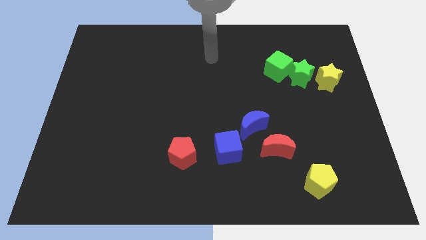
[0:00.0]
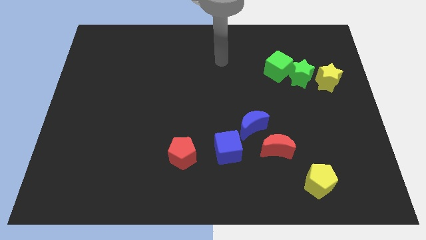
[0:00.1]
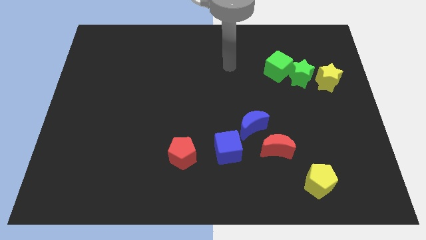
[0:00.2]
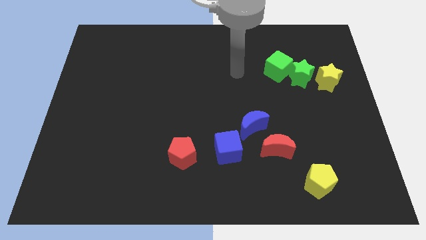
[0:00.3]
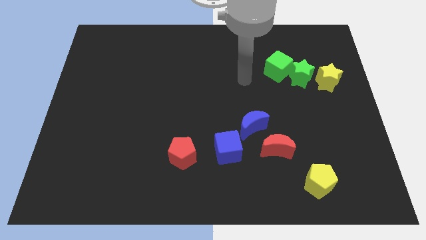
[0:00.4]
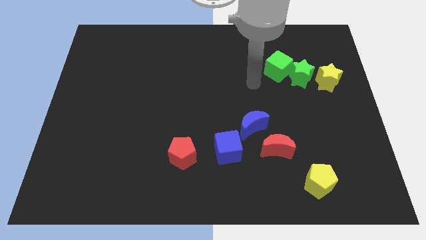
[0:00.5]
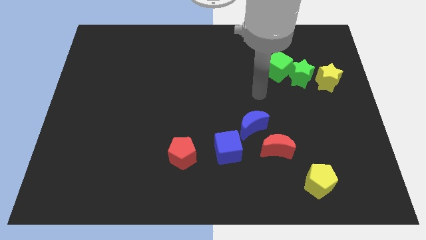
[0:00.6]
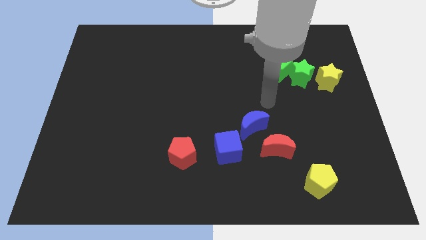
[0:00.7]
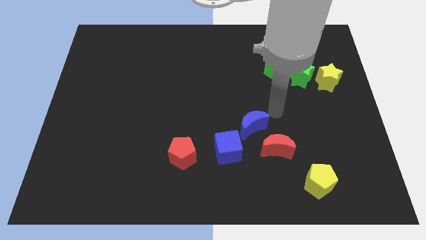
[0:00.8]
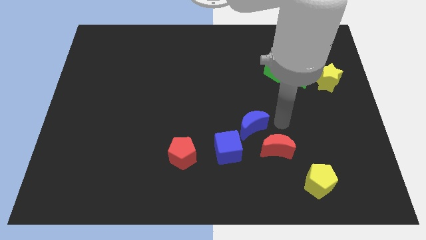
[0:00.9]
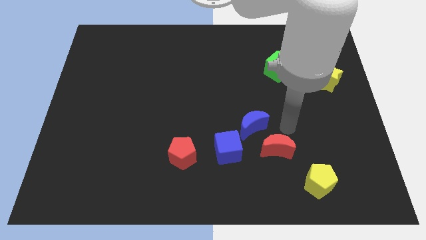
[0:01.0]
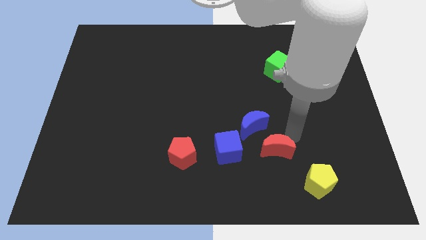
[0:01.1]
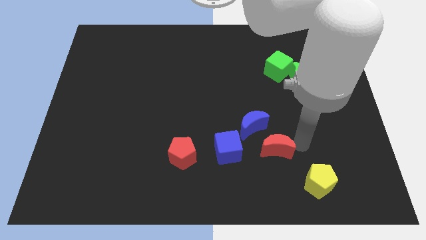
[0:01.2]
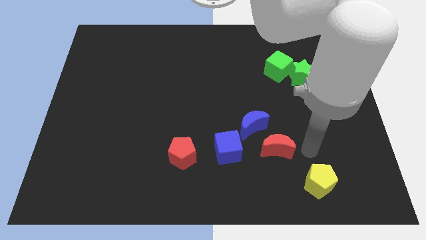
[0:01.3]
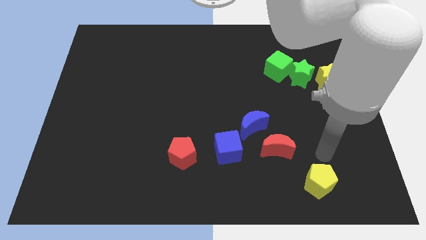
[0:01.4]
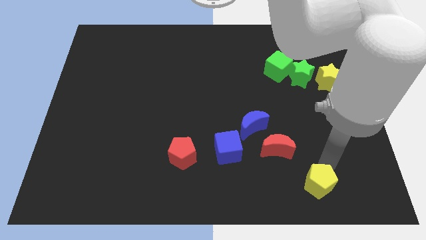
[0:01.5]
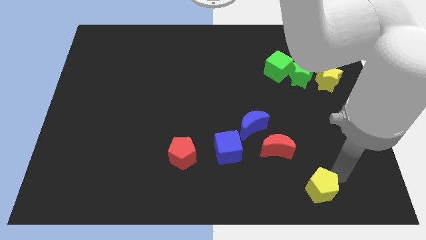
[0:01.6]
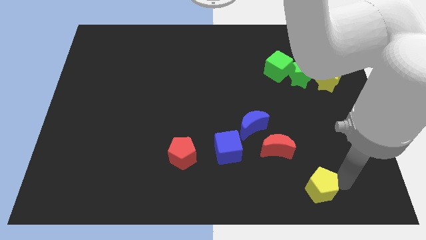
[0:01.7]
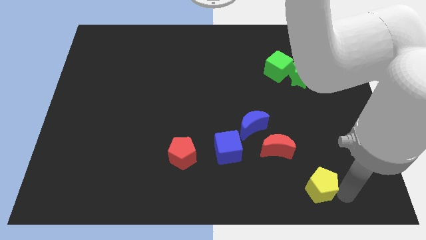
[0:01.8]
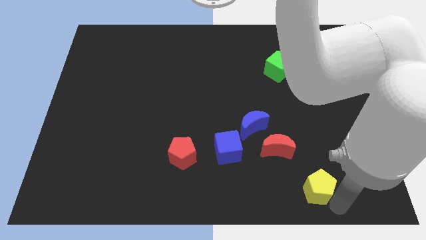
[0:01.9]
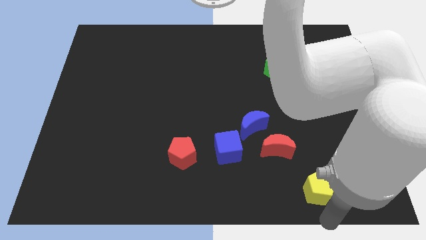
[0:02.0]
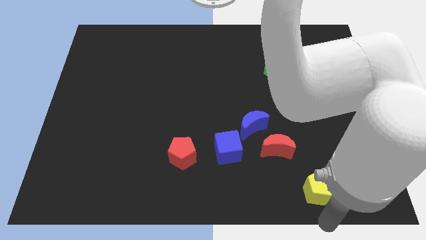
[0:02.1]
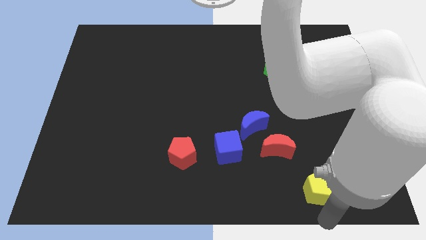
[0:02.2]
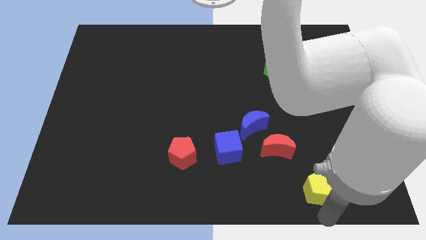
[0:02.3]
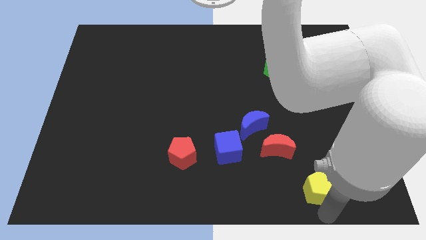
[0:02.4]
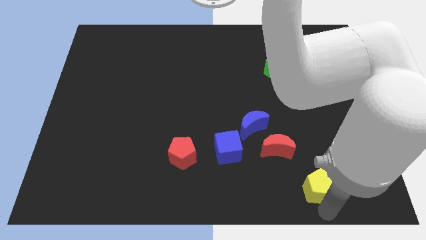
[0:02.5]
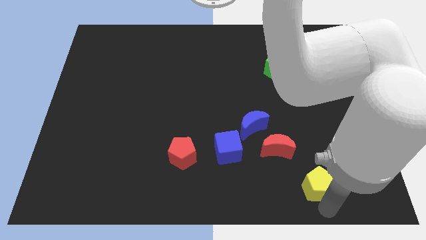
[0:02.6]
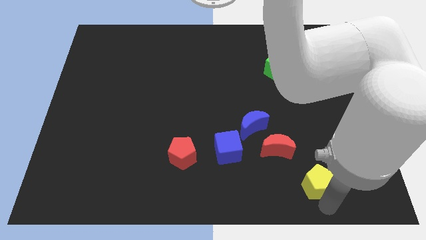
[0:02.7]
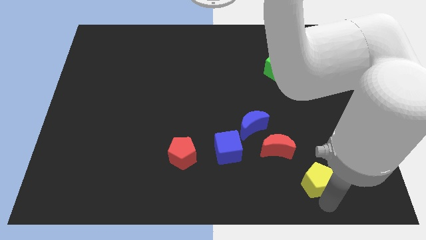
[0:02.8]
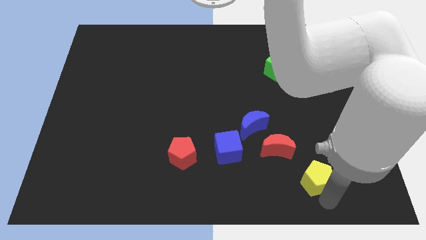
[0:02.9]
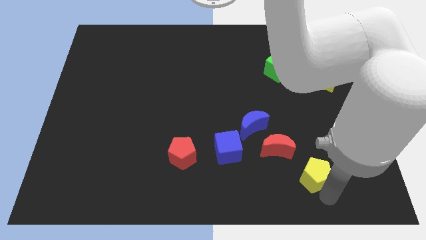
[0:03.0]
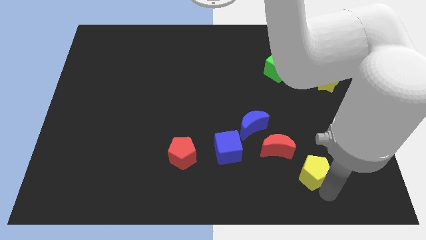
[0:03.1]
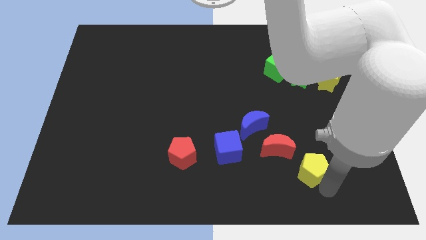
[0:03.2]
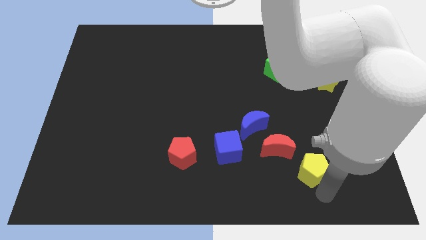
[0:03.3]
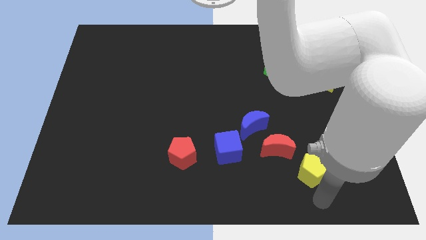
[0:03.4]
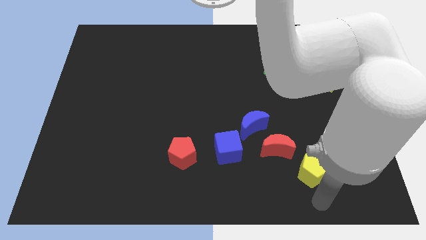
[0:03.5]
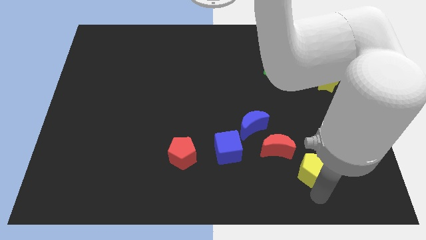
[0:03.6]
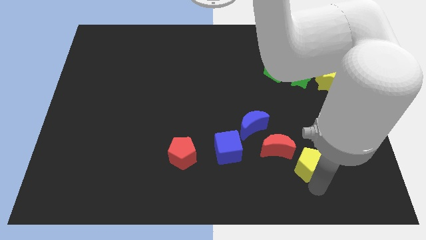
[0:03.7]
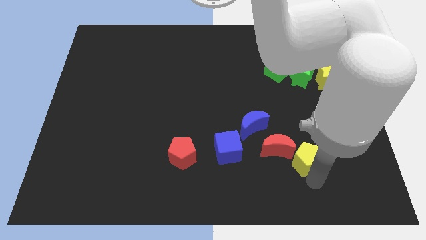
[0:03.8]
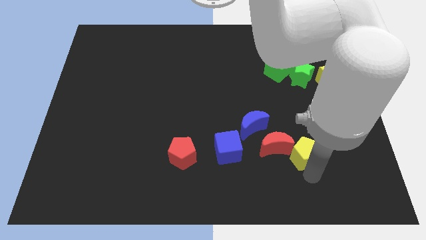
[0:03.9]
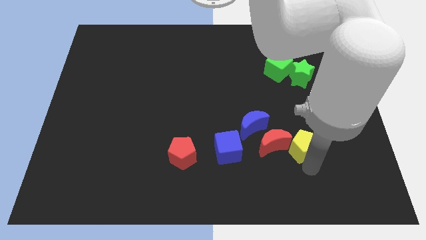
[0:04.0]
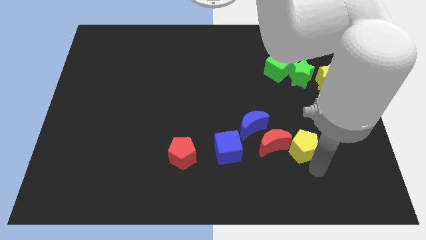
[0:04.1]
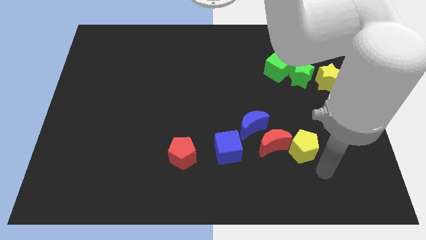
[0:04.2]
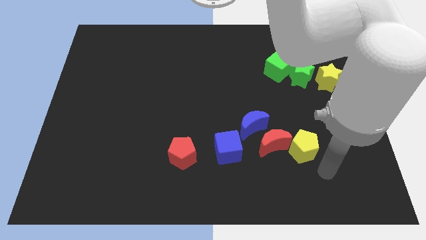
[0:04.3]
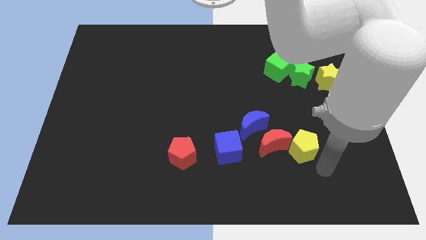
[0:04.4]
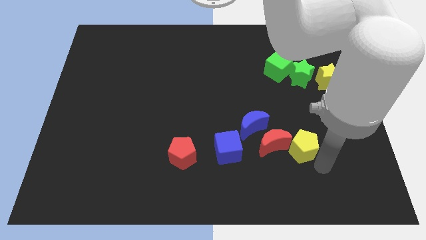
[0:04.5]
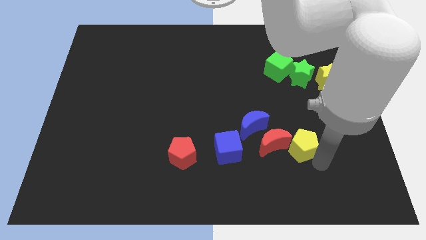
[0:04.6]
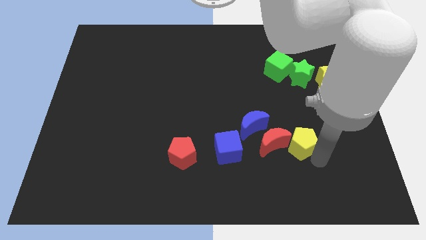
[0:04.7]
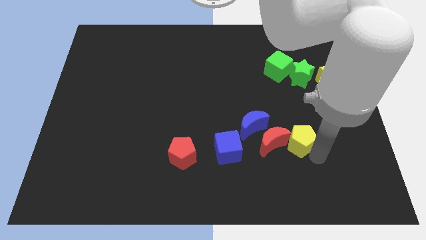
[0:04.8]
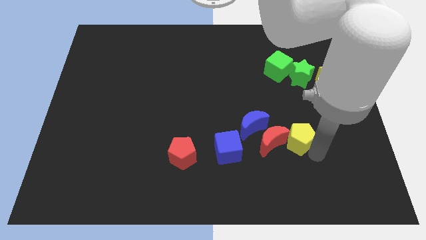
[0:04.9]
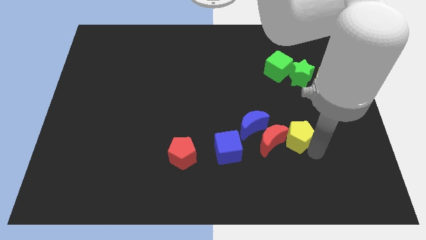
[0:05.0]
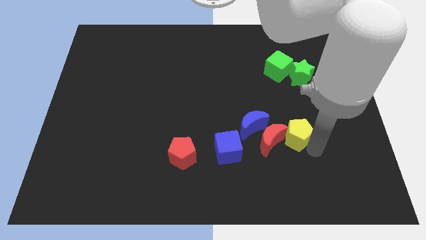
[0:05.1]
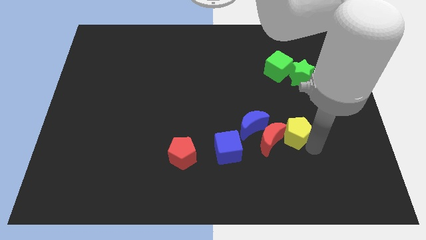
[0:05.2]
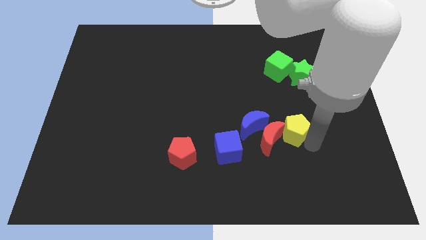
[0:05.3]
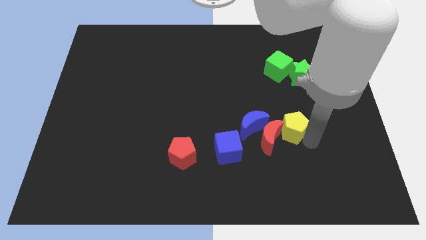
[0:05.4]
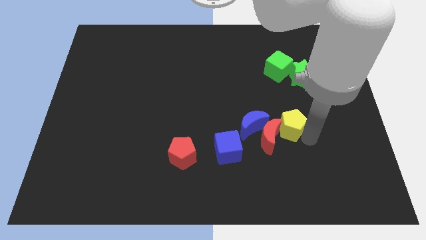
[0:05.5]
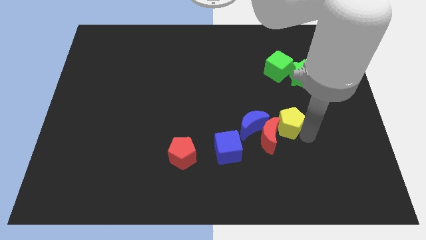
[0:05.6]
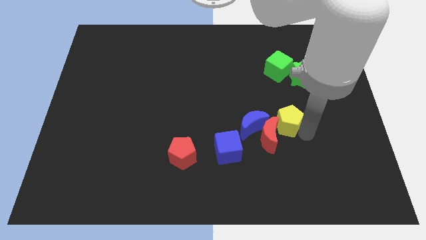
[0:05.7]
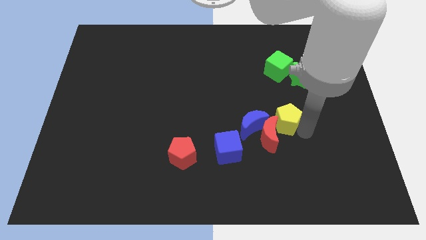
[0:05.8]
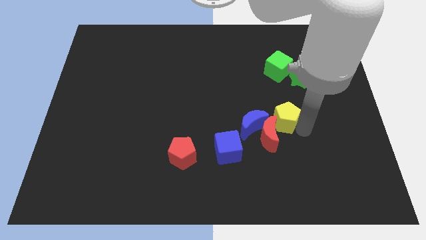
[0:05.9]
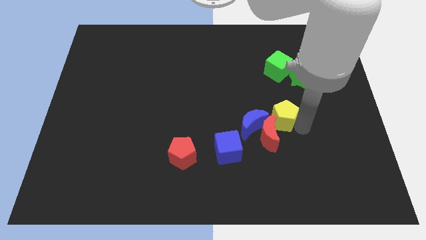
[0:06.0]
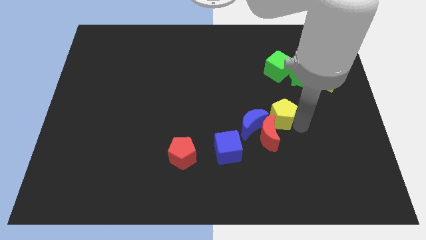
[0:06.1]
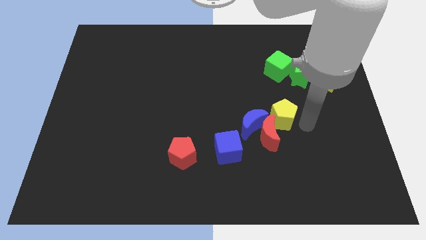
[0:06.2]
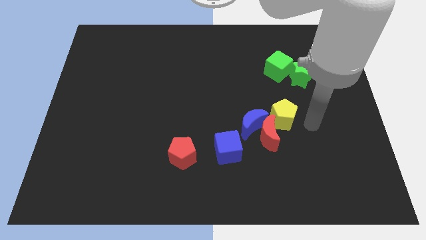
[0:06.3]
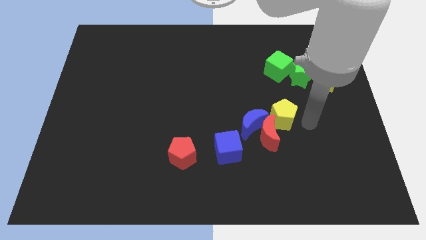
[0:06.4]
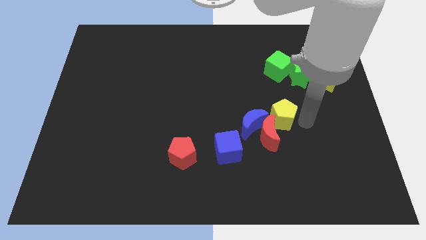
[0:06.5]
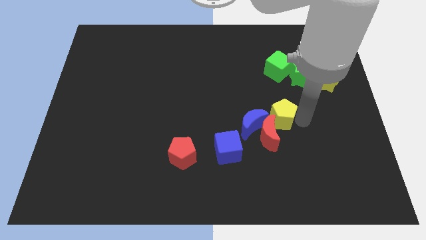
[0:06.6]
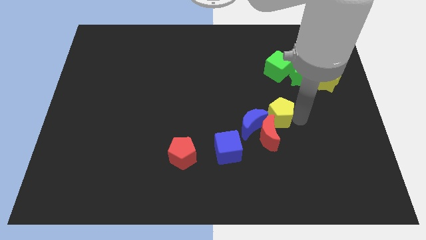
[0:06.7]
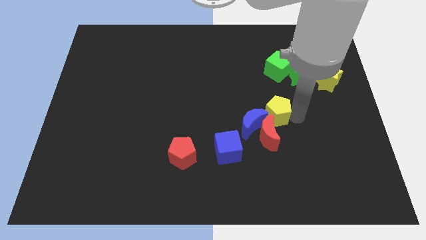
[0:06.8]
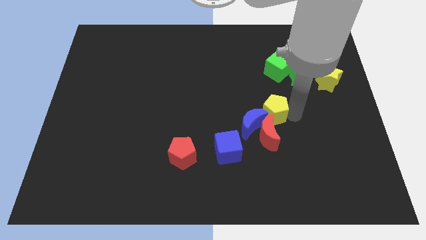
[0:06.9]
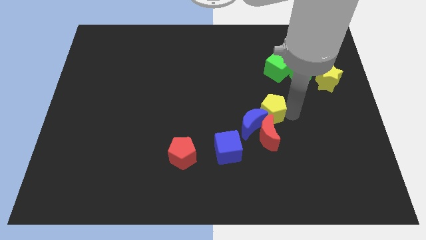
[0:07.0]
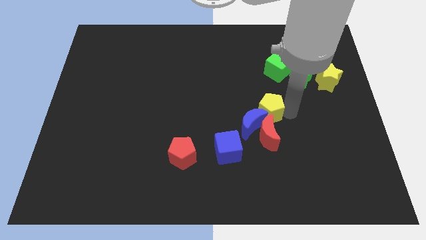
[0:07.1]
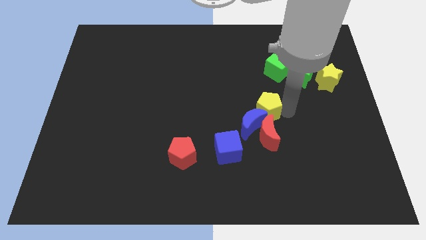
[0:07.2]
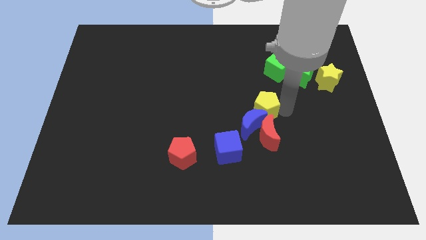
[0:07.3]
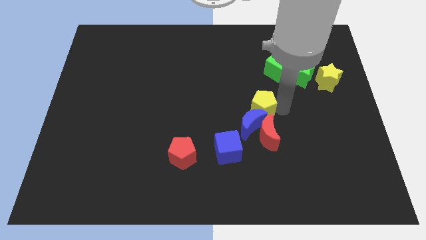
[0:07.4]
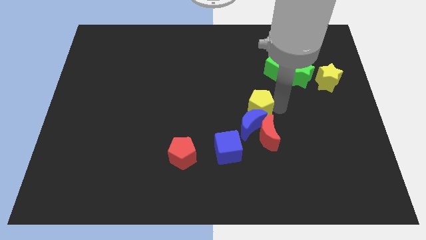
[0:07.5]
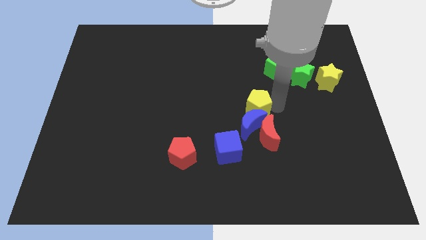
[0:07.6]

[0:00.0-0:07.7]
push the yellow pentagon up and then left

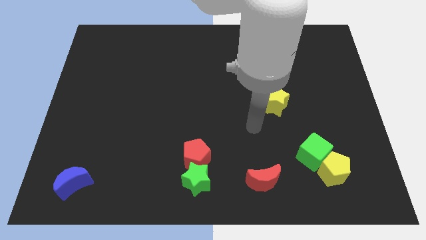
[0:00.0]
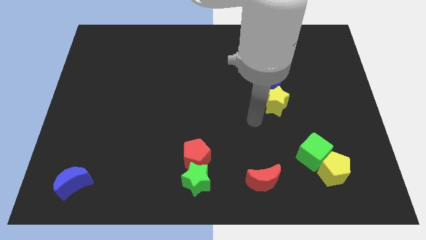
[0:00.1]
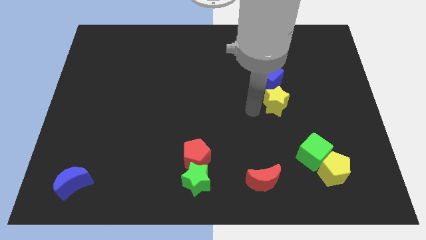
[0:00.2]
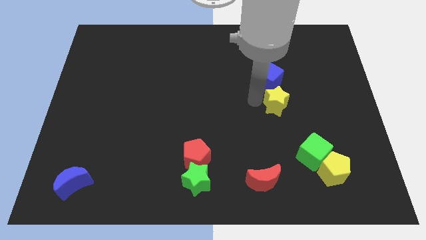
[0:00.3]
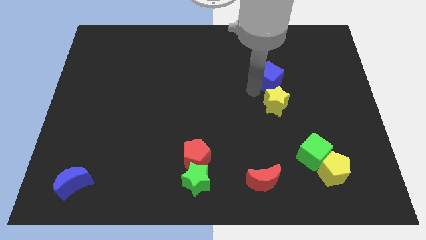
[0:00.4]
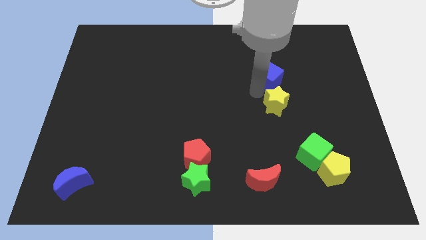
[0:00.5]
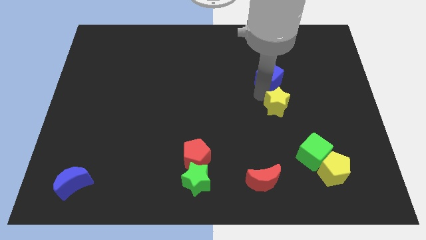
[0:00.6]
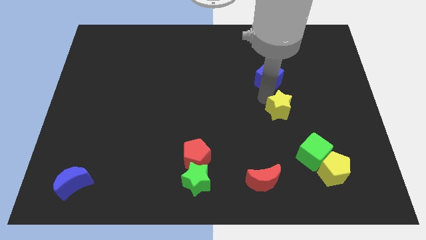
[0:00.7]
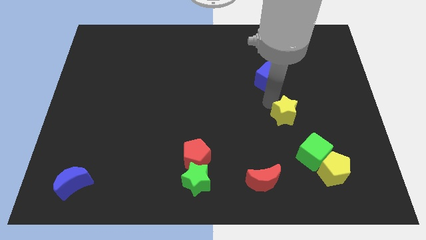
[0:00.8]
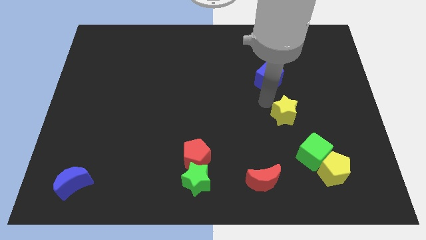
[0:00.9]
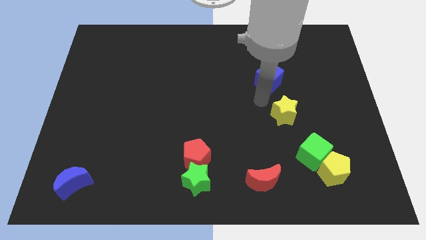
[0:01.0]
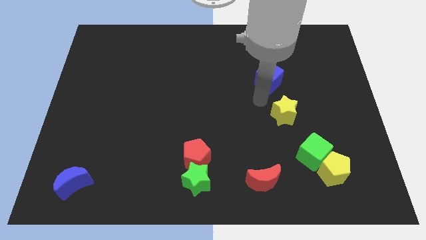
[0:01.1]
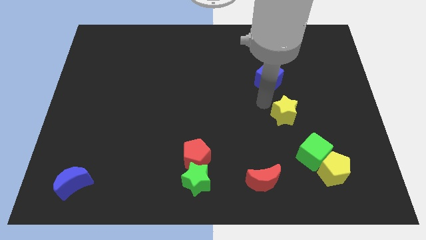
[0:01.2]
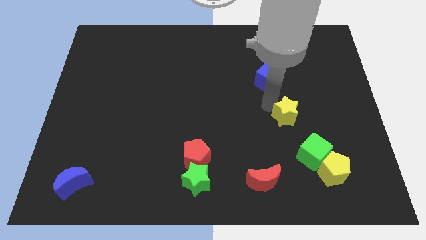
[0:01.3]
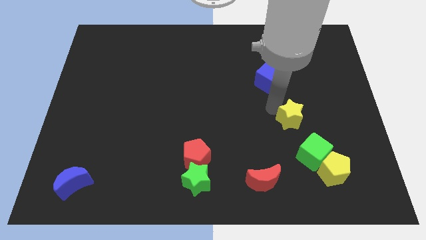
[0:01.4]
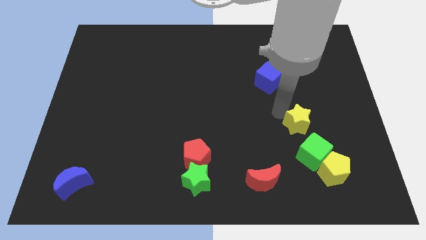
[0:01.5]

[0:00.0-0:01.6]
slightly push the yellow star down and to the right
